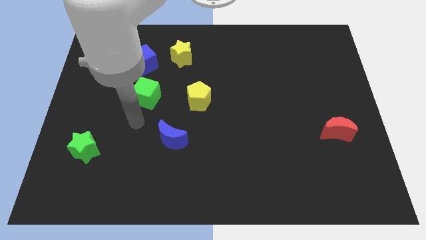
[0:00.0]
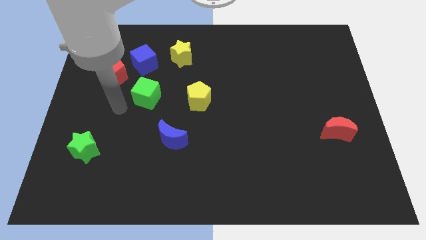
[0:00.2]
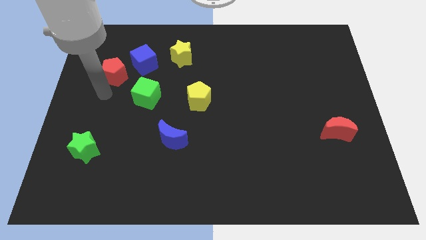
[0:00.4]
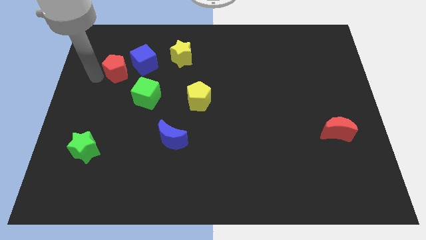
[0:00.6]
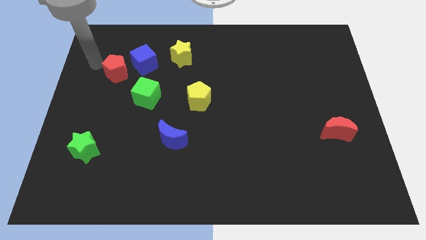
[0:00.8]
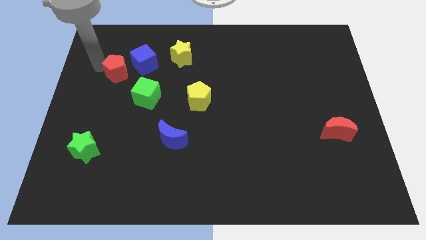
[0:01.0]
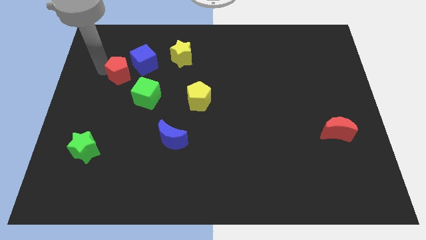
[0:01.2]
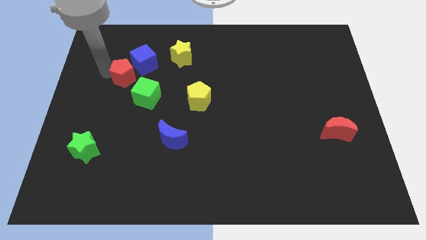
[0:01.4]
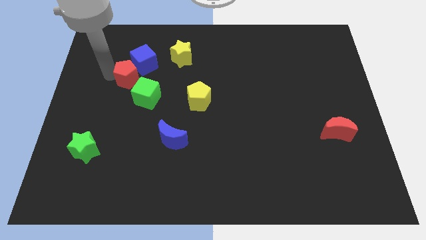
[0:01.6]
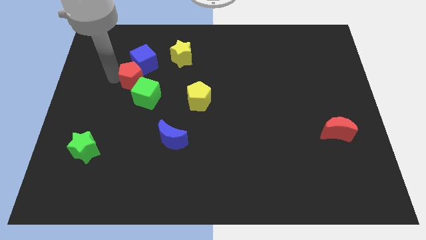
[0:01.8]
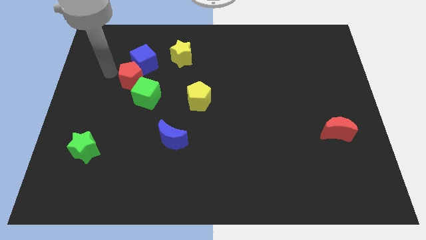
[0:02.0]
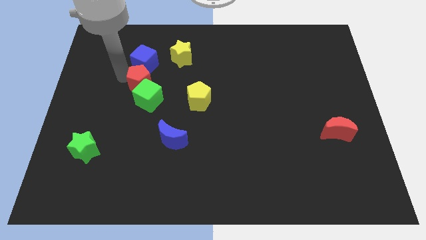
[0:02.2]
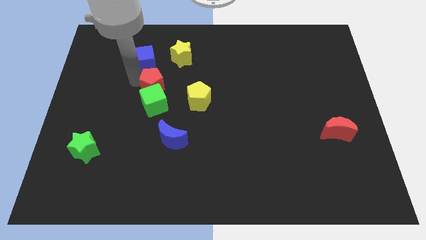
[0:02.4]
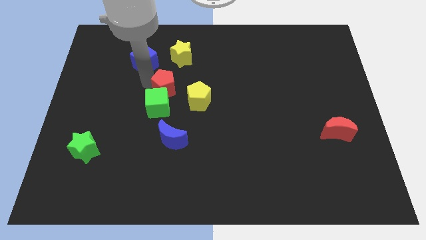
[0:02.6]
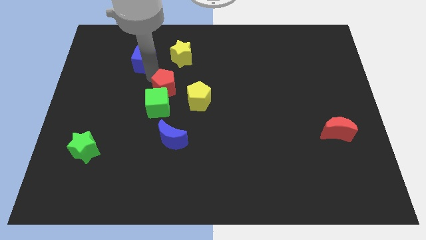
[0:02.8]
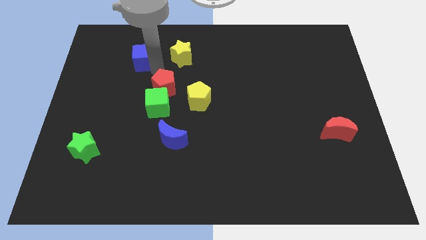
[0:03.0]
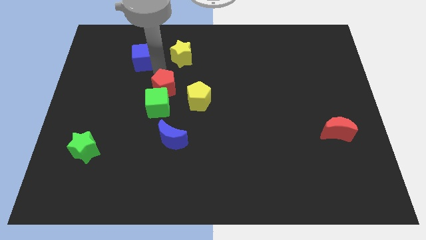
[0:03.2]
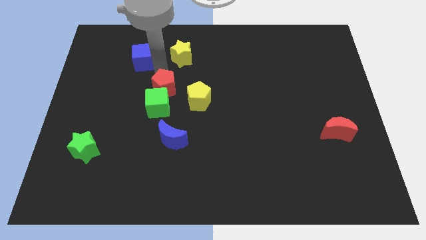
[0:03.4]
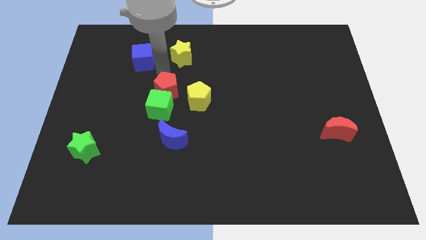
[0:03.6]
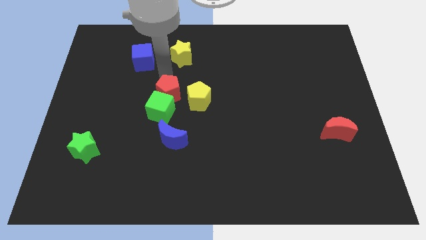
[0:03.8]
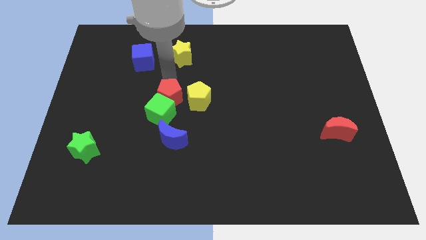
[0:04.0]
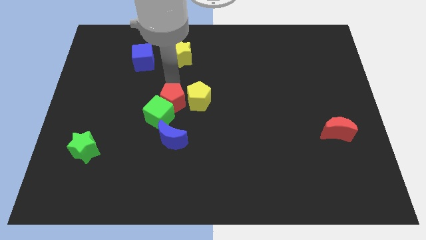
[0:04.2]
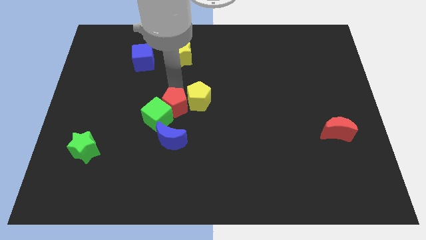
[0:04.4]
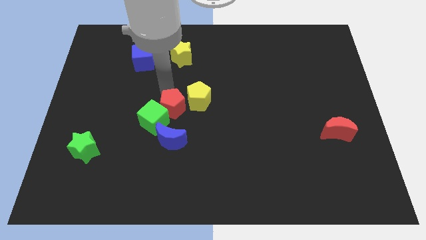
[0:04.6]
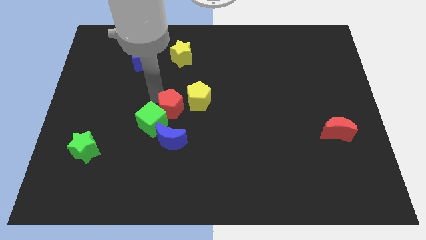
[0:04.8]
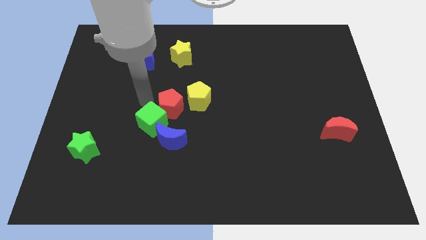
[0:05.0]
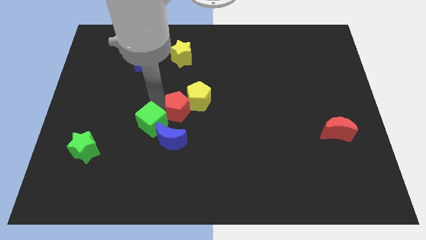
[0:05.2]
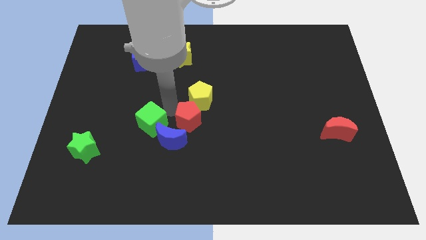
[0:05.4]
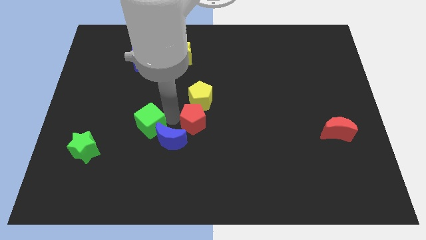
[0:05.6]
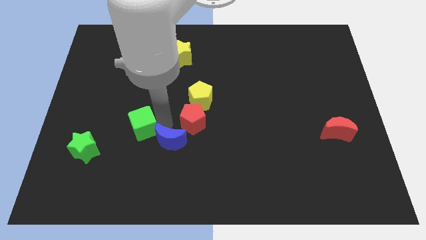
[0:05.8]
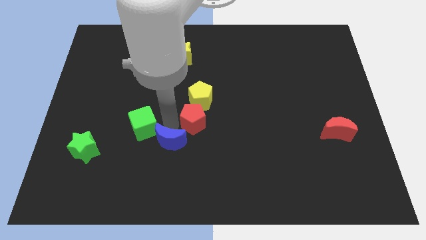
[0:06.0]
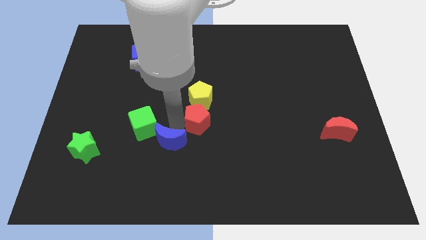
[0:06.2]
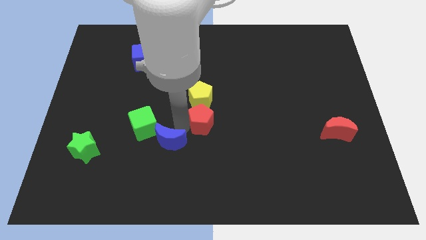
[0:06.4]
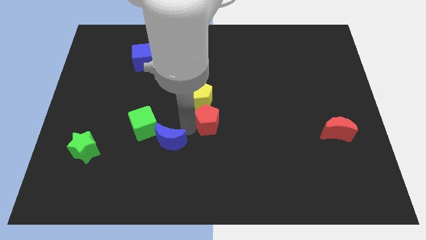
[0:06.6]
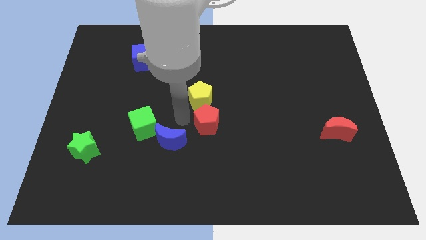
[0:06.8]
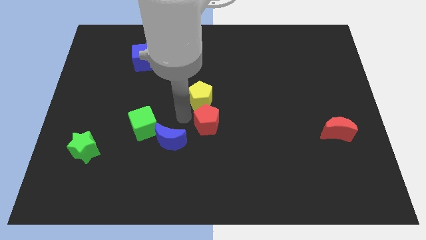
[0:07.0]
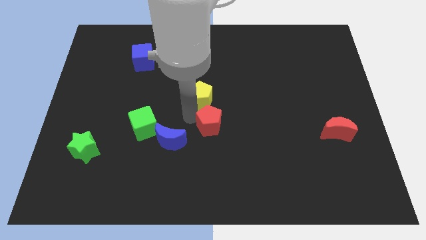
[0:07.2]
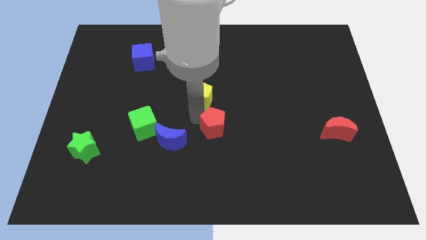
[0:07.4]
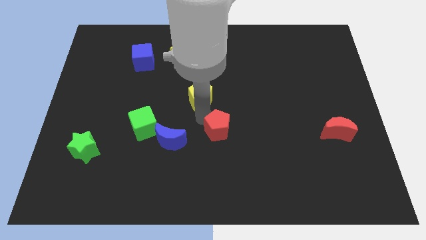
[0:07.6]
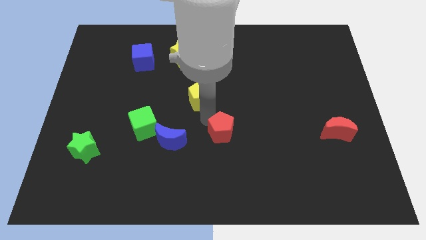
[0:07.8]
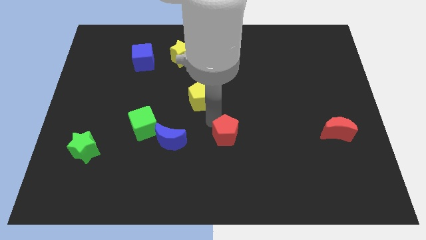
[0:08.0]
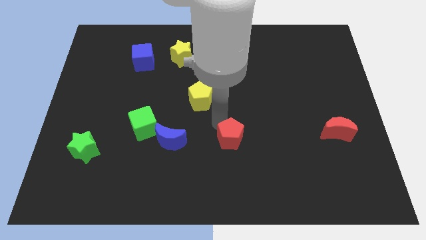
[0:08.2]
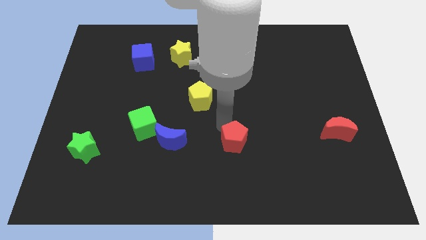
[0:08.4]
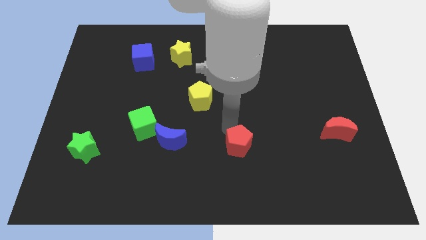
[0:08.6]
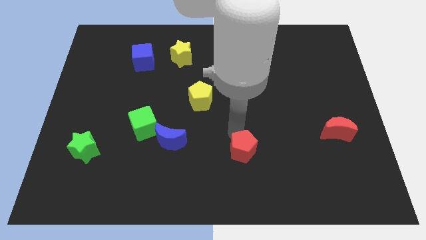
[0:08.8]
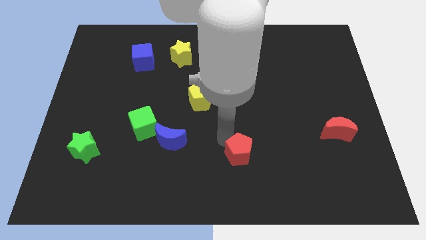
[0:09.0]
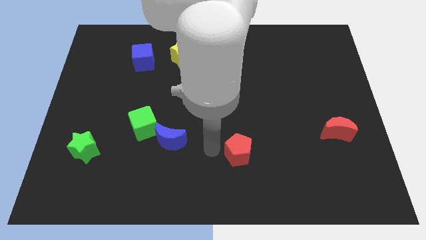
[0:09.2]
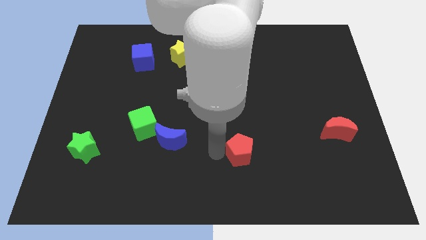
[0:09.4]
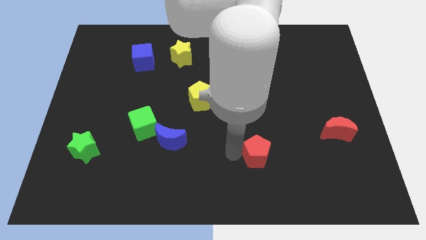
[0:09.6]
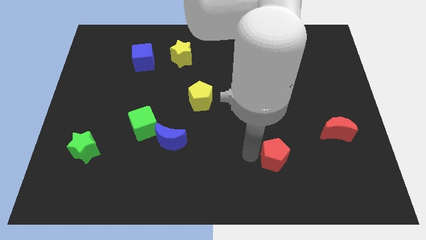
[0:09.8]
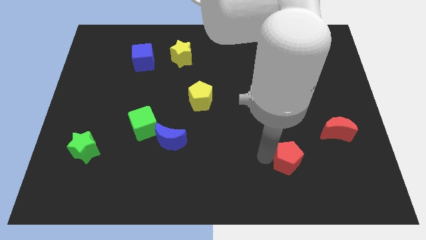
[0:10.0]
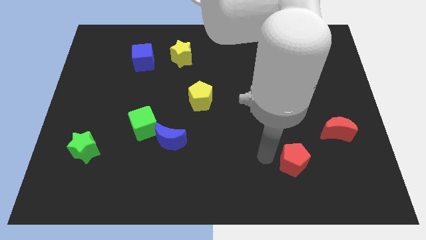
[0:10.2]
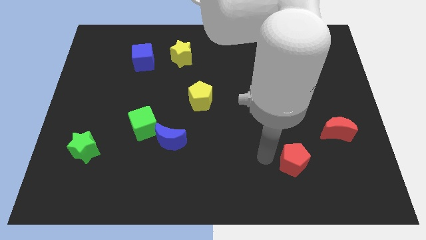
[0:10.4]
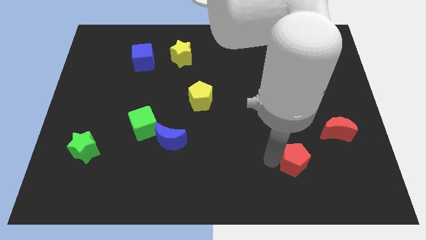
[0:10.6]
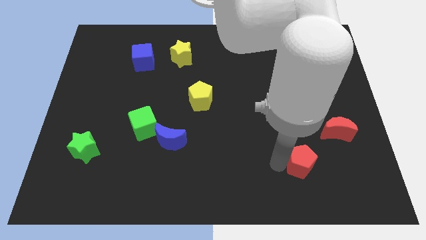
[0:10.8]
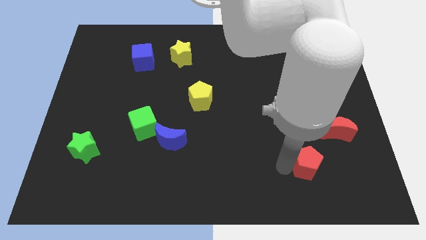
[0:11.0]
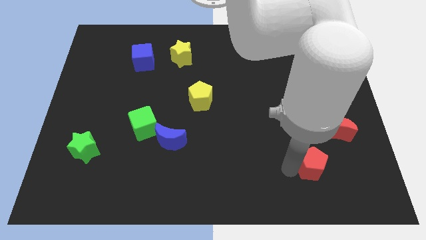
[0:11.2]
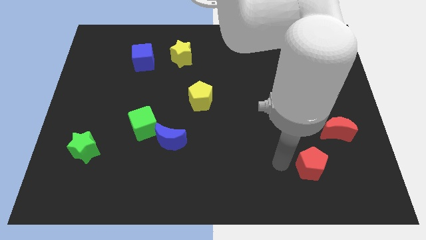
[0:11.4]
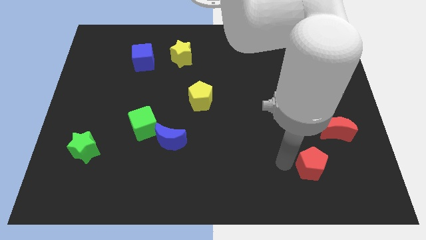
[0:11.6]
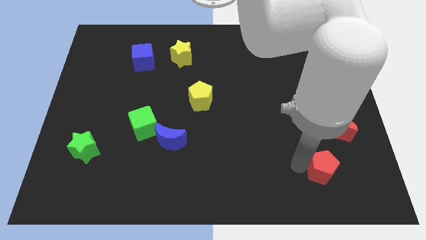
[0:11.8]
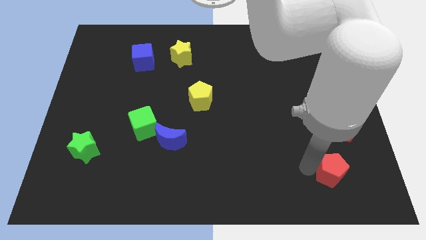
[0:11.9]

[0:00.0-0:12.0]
move the red pentagon to the bottom of the red moon
